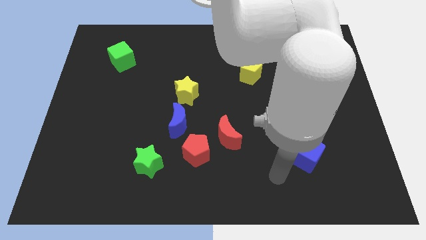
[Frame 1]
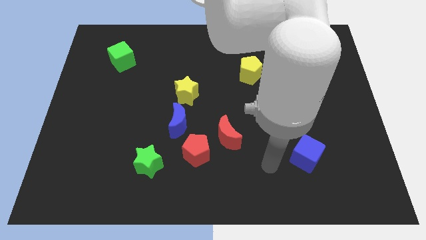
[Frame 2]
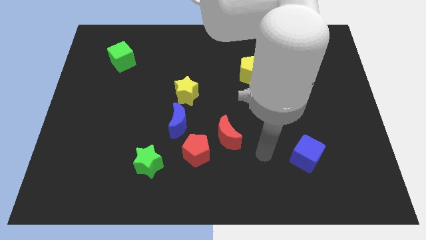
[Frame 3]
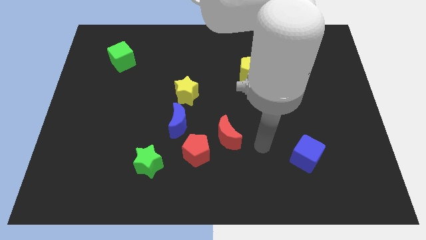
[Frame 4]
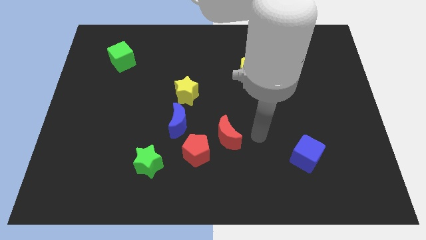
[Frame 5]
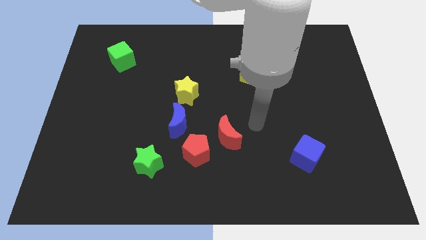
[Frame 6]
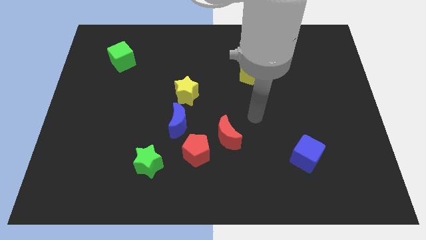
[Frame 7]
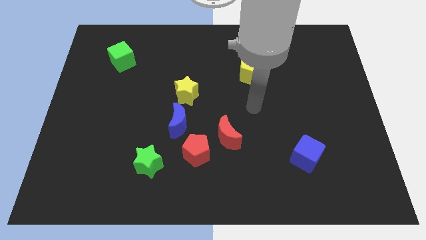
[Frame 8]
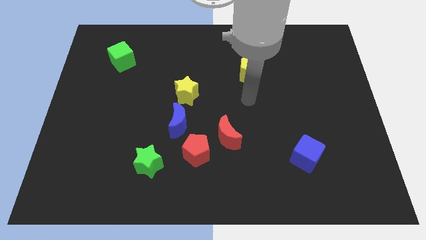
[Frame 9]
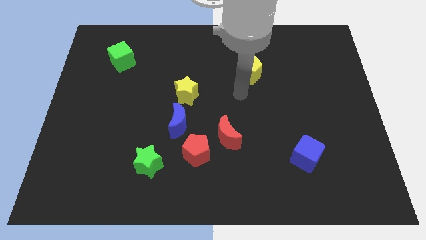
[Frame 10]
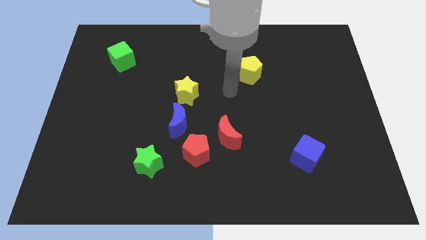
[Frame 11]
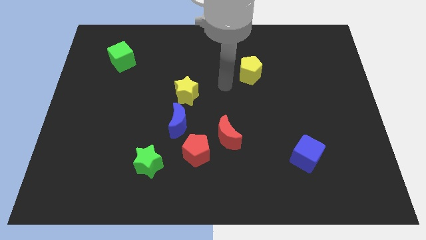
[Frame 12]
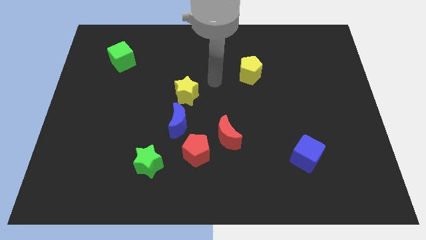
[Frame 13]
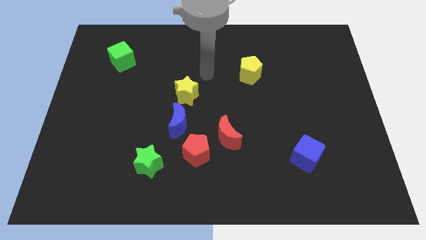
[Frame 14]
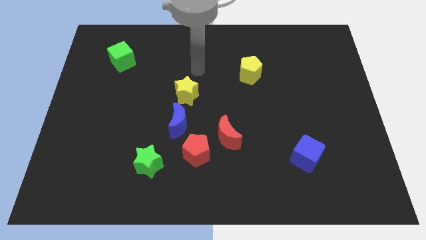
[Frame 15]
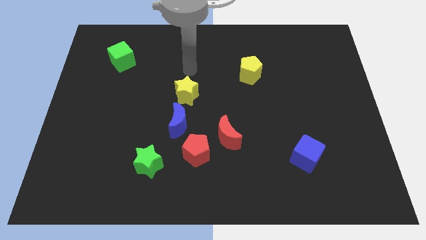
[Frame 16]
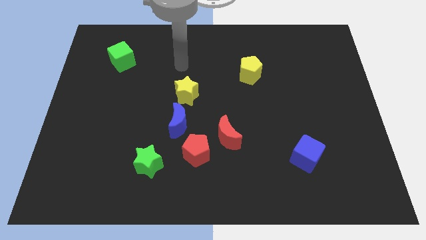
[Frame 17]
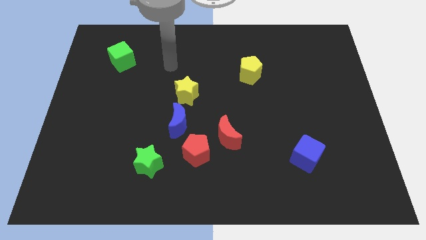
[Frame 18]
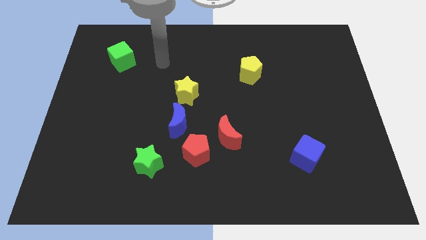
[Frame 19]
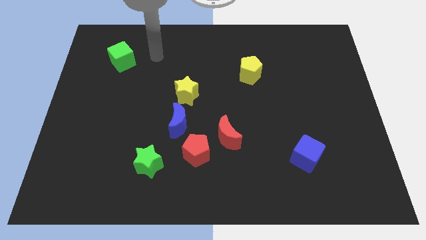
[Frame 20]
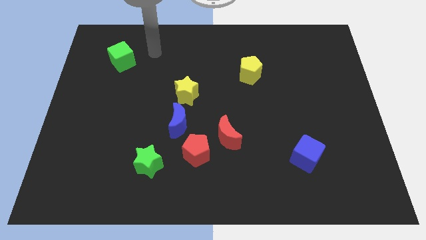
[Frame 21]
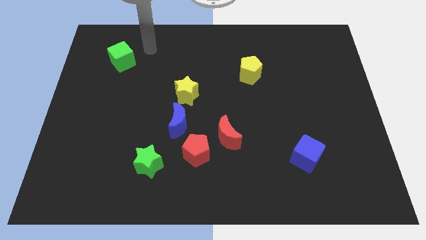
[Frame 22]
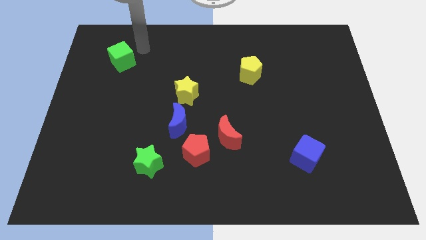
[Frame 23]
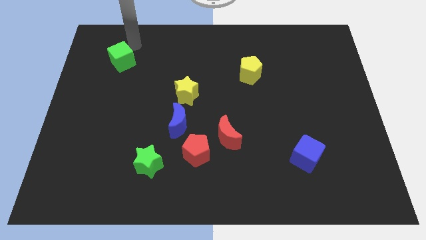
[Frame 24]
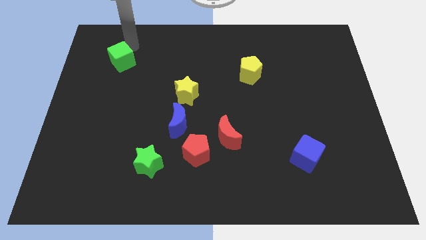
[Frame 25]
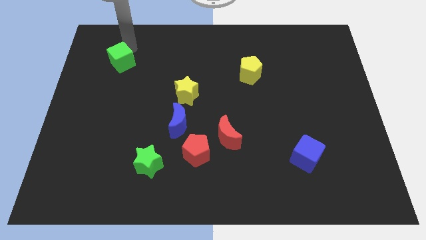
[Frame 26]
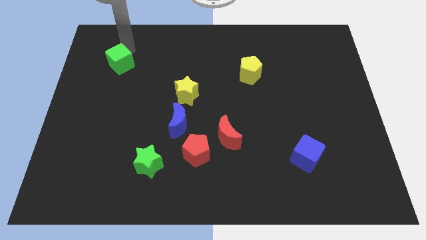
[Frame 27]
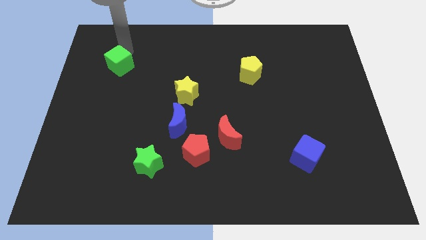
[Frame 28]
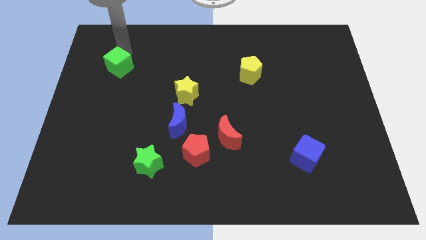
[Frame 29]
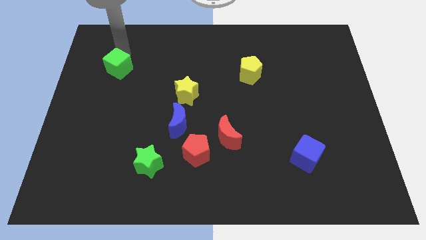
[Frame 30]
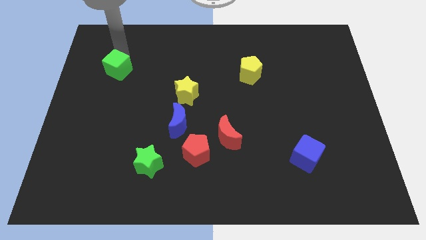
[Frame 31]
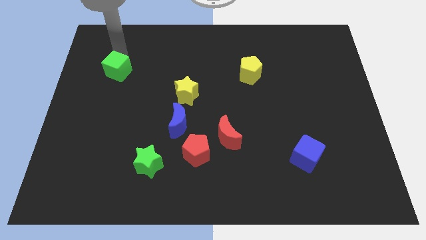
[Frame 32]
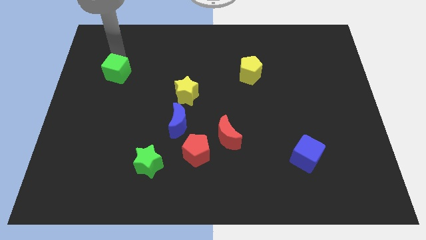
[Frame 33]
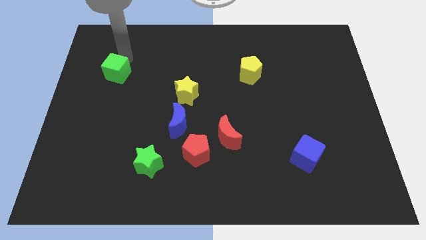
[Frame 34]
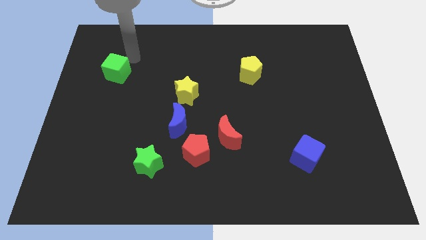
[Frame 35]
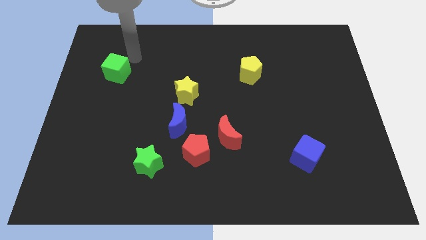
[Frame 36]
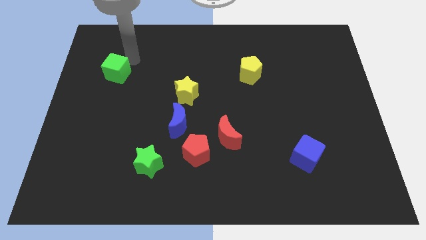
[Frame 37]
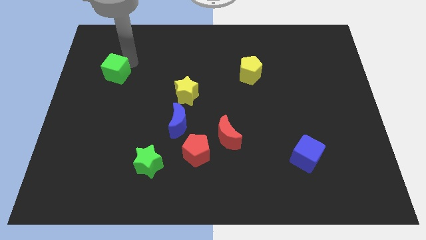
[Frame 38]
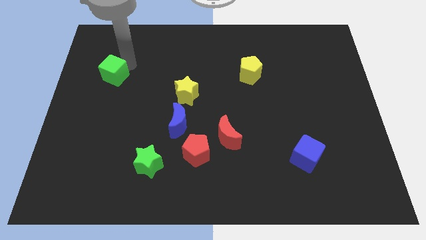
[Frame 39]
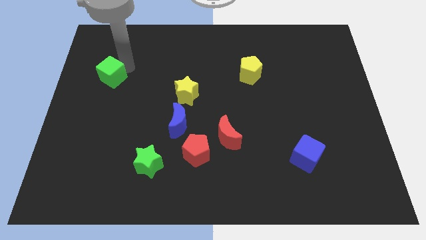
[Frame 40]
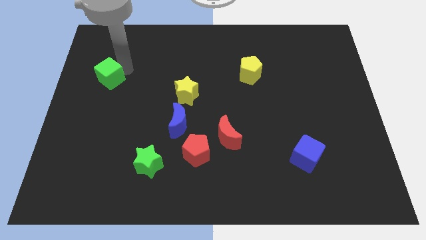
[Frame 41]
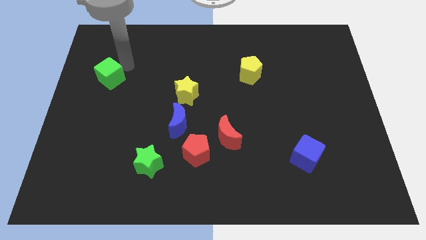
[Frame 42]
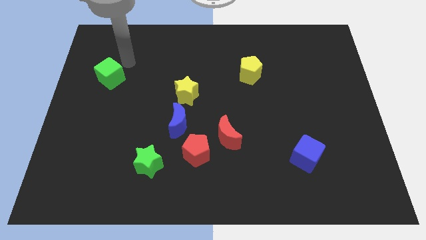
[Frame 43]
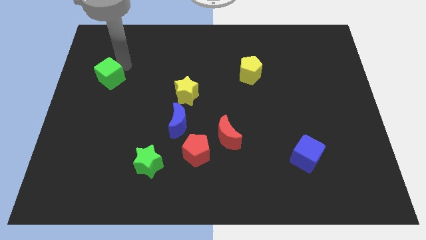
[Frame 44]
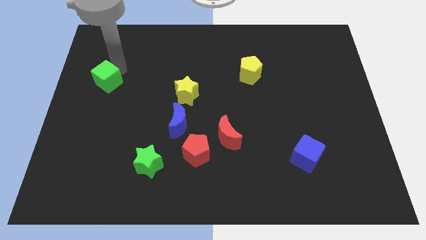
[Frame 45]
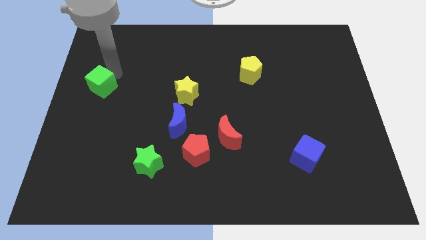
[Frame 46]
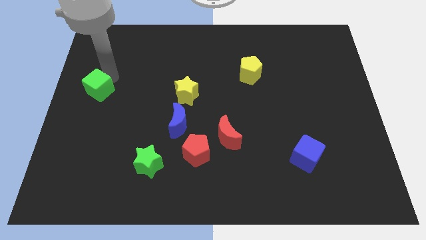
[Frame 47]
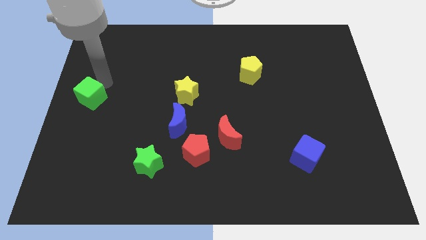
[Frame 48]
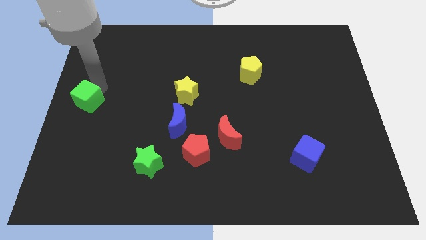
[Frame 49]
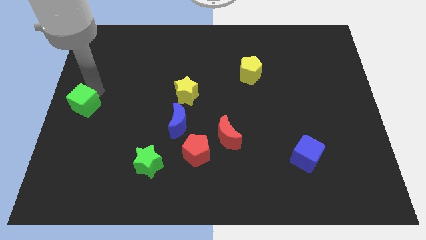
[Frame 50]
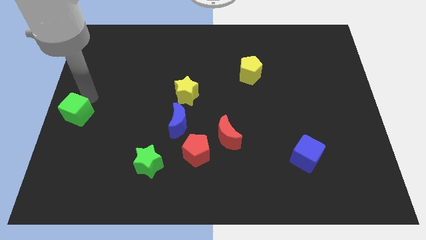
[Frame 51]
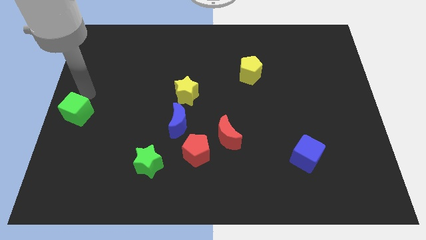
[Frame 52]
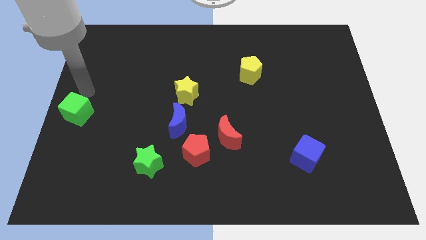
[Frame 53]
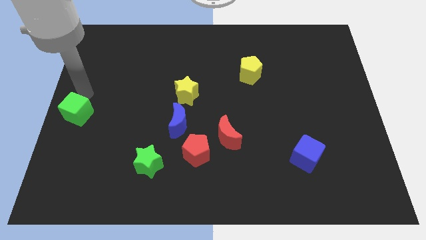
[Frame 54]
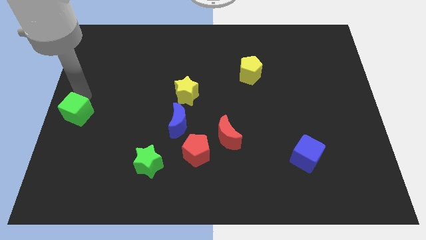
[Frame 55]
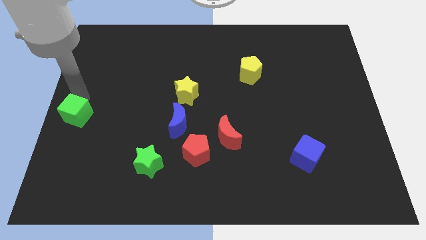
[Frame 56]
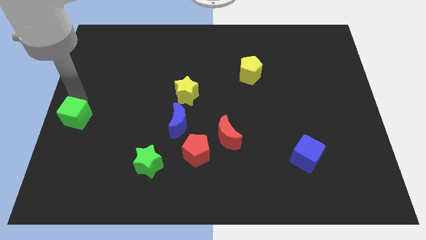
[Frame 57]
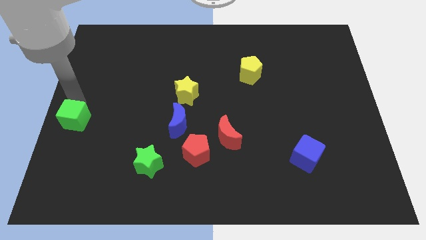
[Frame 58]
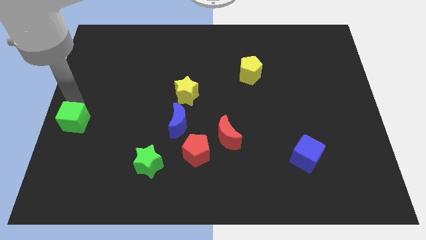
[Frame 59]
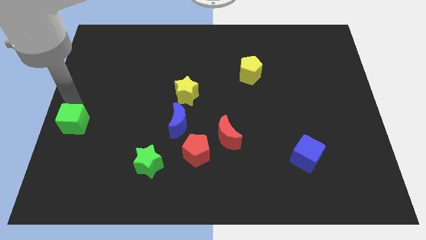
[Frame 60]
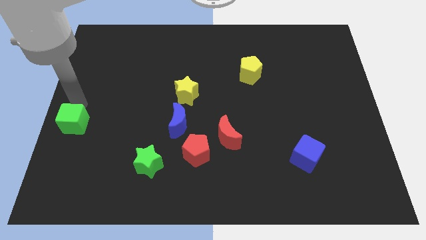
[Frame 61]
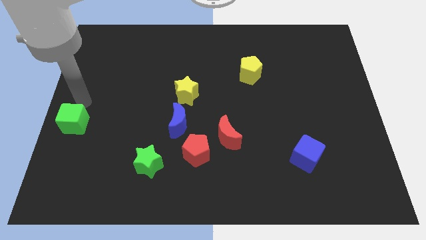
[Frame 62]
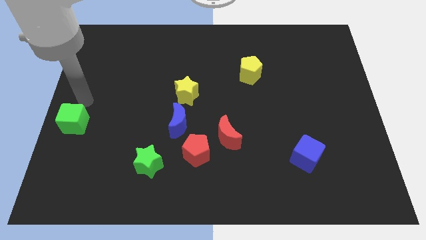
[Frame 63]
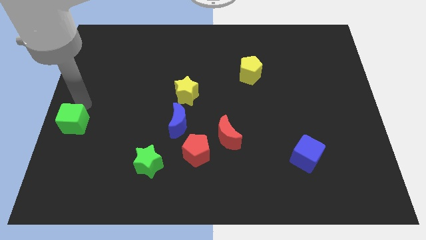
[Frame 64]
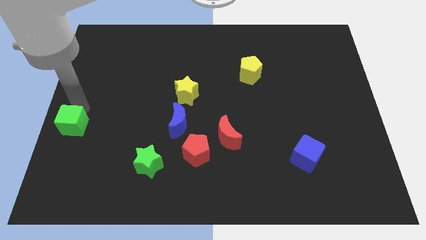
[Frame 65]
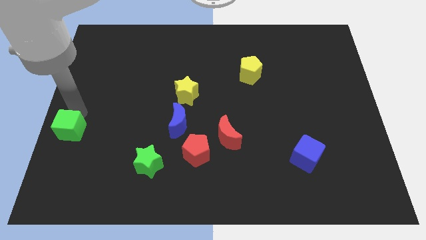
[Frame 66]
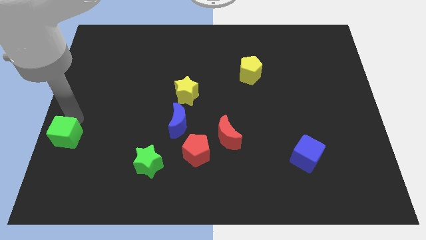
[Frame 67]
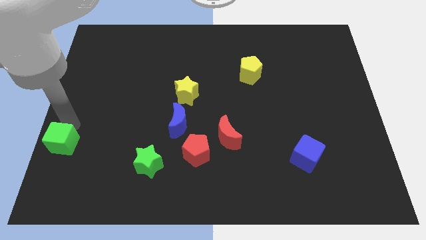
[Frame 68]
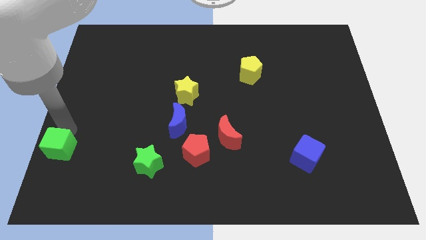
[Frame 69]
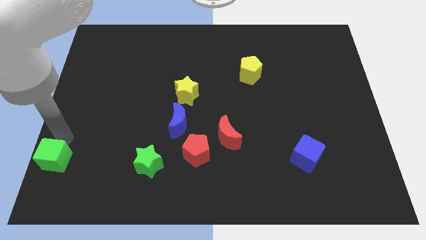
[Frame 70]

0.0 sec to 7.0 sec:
slide the green cube to the lower left corner

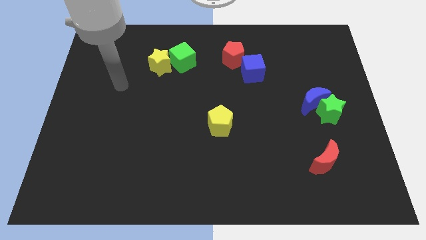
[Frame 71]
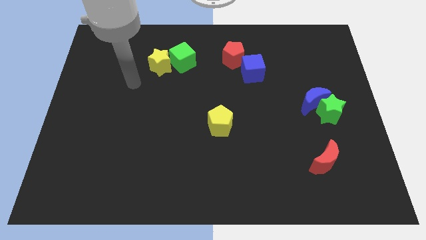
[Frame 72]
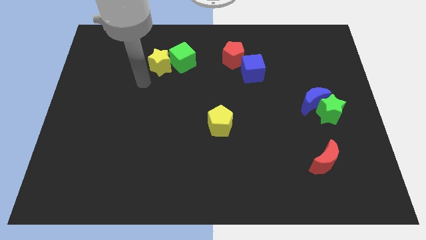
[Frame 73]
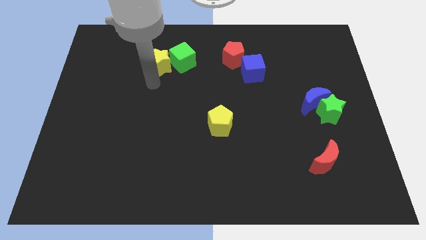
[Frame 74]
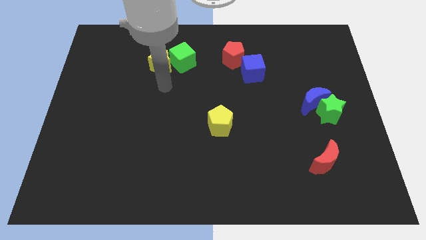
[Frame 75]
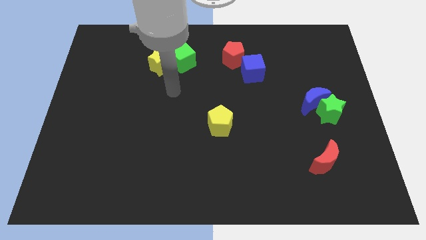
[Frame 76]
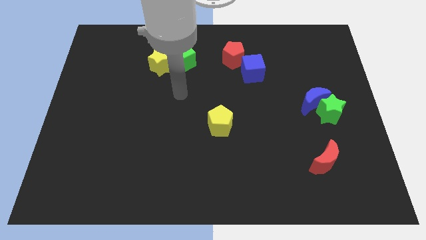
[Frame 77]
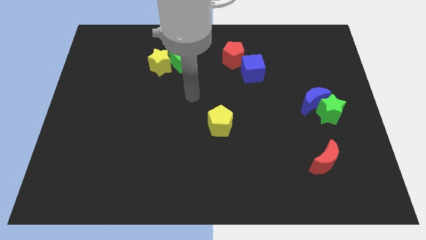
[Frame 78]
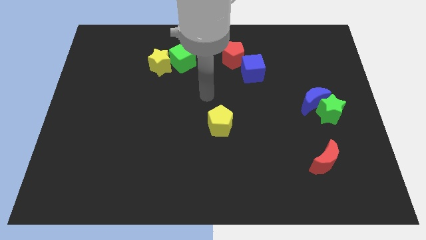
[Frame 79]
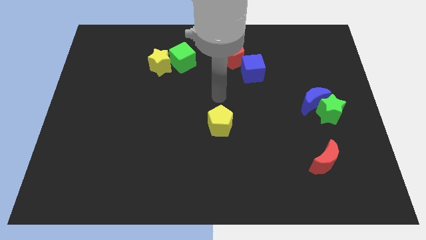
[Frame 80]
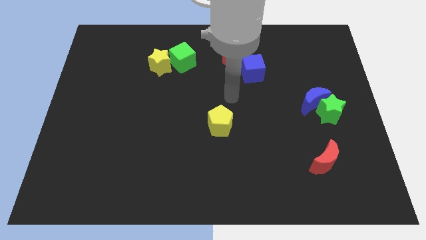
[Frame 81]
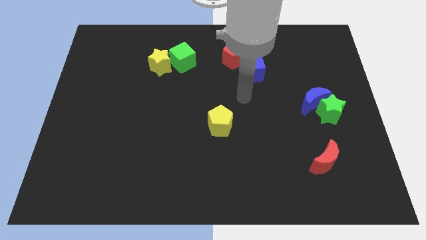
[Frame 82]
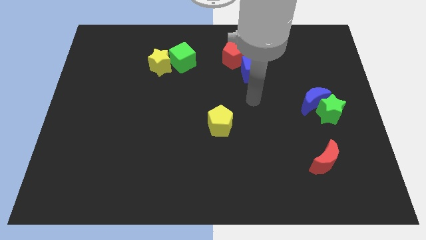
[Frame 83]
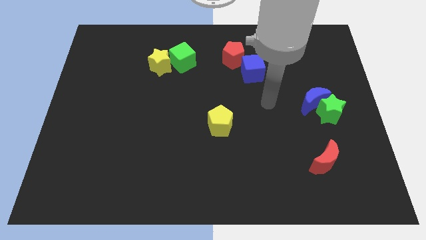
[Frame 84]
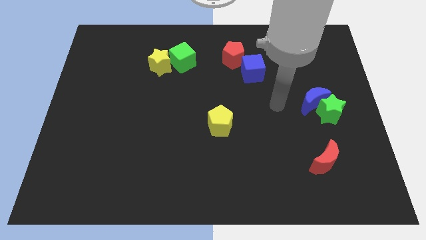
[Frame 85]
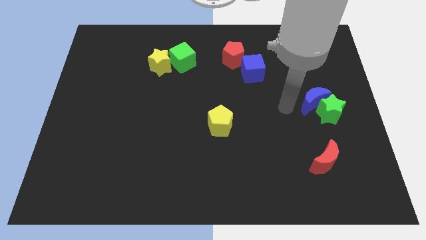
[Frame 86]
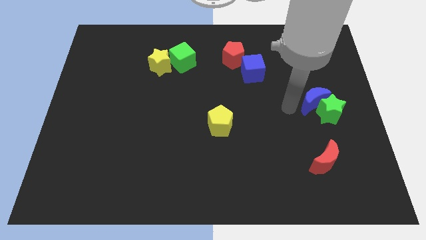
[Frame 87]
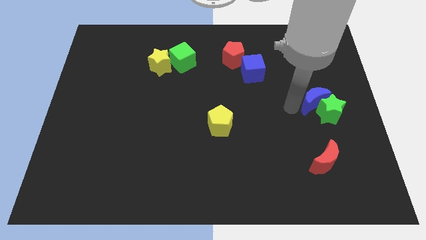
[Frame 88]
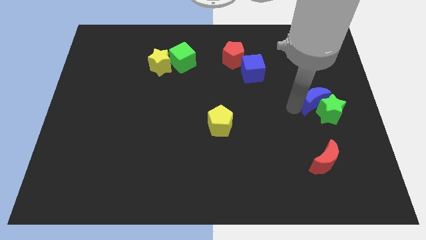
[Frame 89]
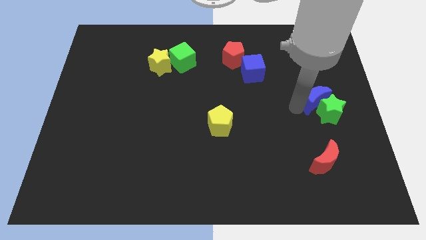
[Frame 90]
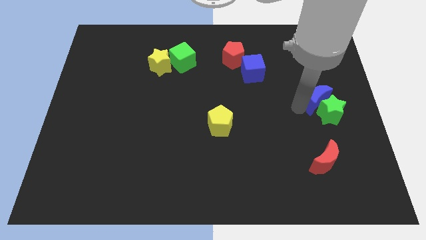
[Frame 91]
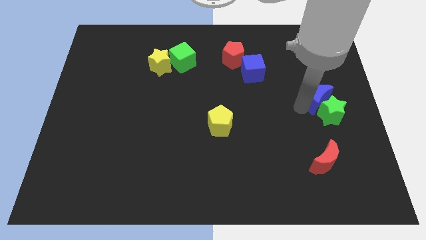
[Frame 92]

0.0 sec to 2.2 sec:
push the blue moon to the center right
